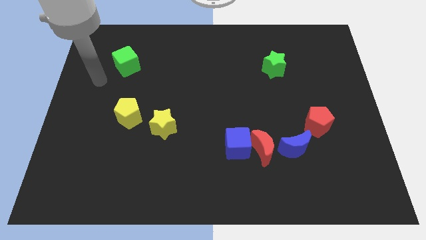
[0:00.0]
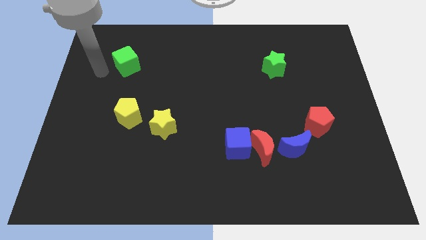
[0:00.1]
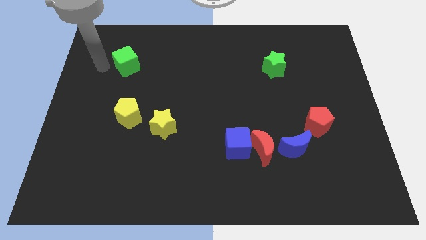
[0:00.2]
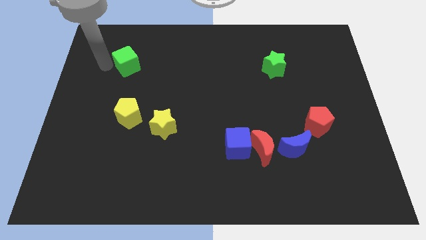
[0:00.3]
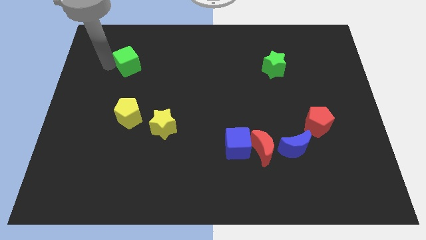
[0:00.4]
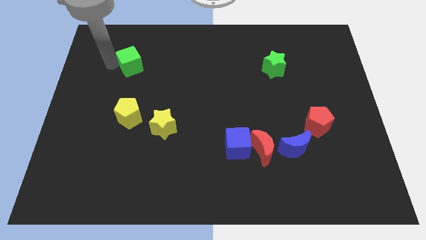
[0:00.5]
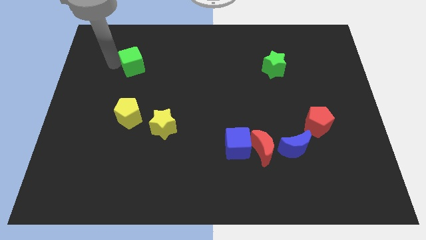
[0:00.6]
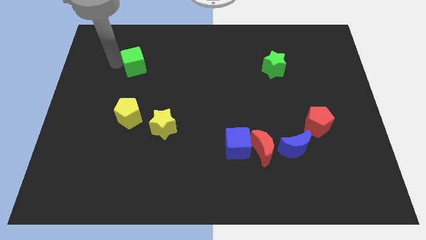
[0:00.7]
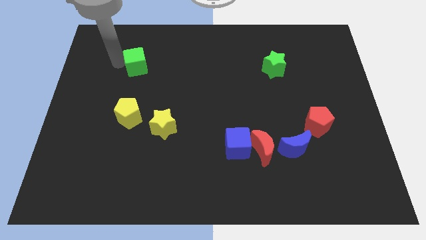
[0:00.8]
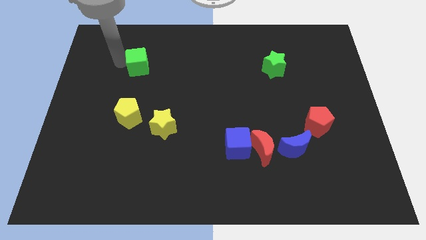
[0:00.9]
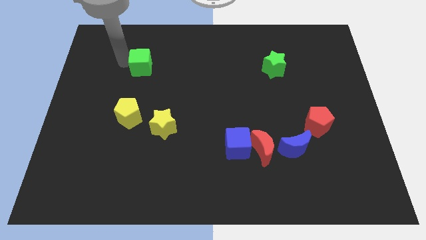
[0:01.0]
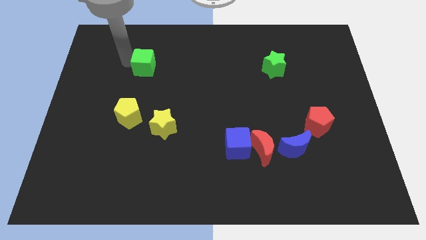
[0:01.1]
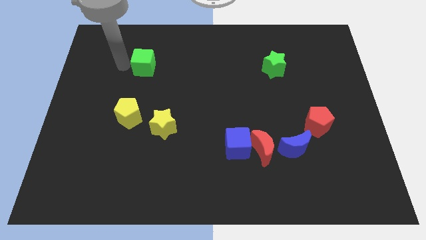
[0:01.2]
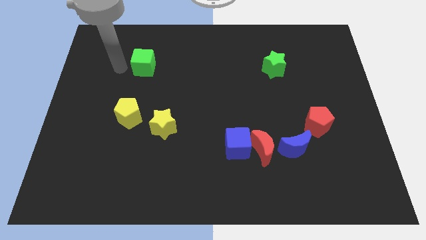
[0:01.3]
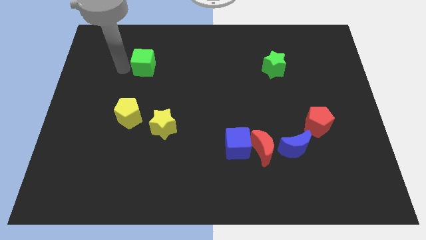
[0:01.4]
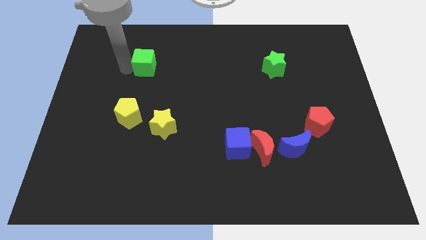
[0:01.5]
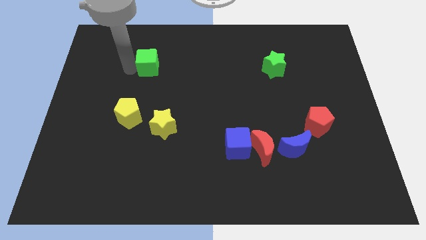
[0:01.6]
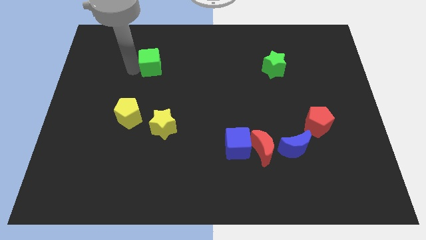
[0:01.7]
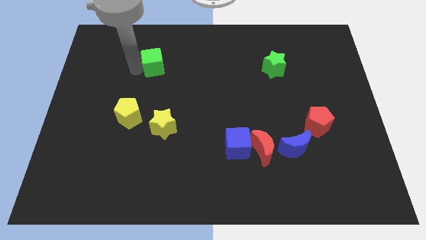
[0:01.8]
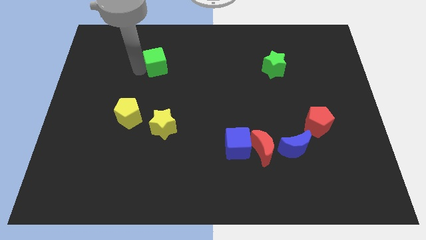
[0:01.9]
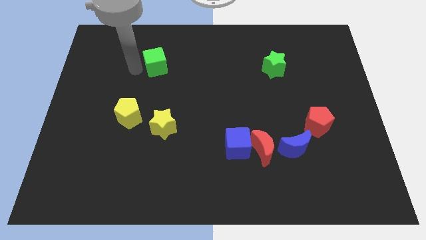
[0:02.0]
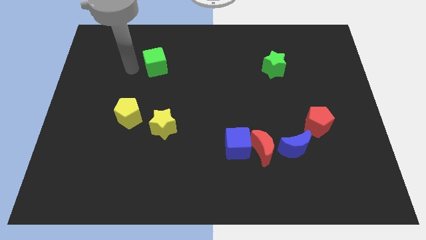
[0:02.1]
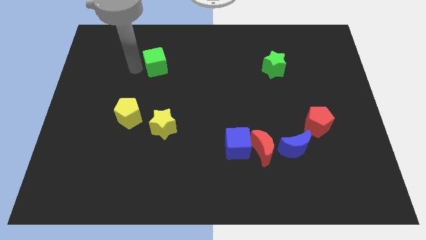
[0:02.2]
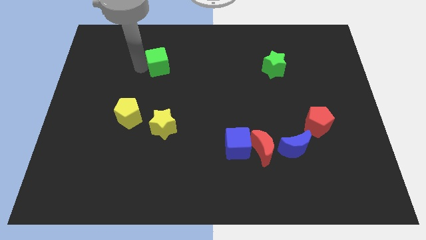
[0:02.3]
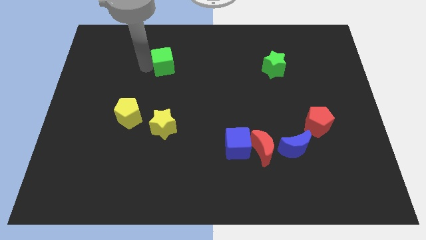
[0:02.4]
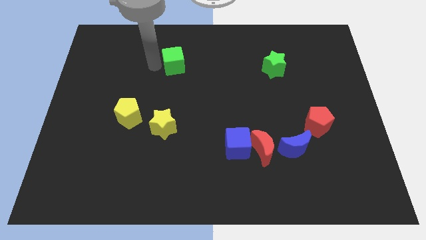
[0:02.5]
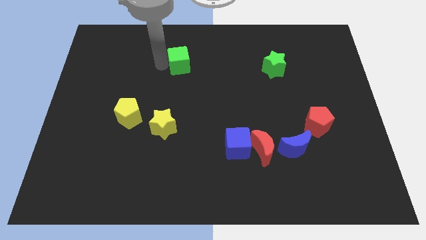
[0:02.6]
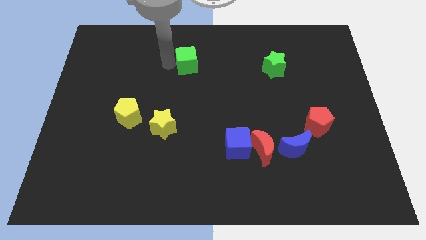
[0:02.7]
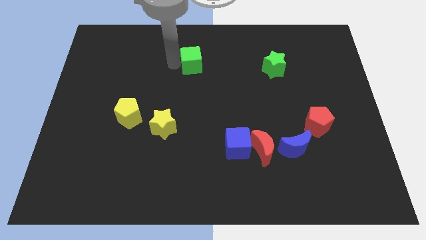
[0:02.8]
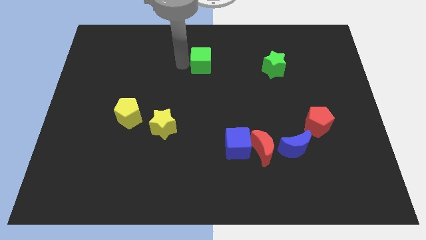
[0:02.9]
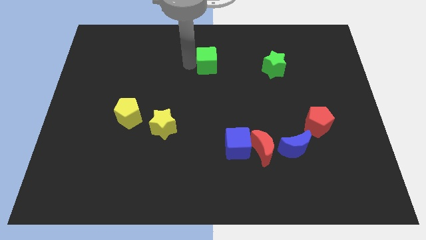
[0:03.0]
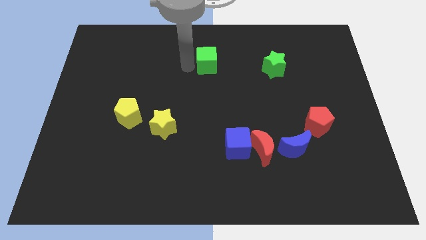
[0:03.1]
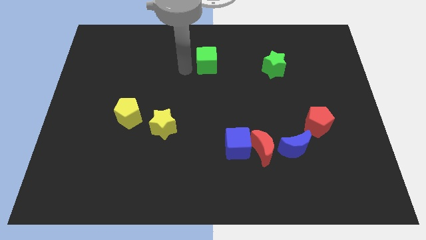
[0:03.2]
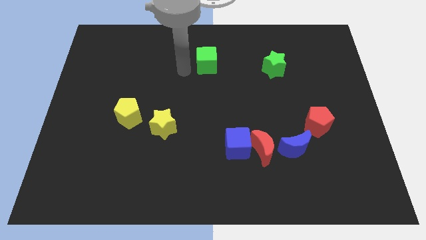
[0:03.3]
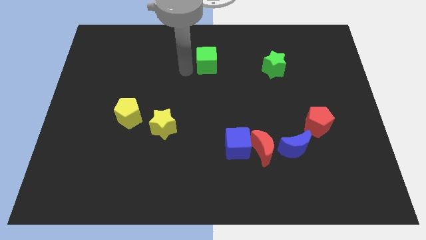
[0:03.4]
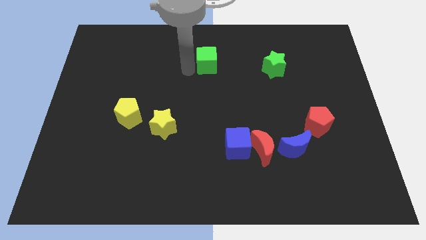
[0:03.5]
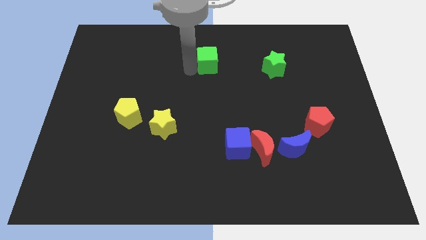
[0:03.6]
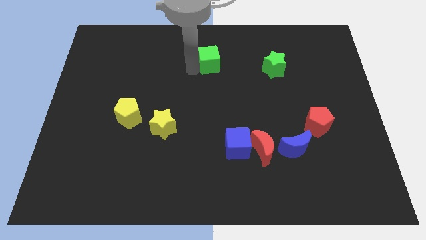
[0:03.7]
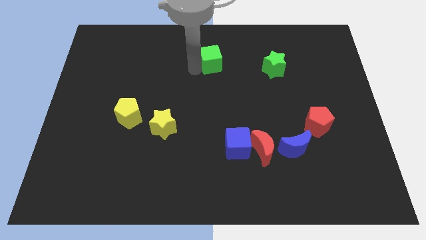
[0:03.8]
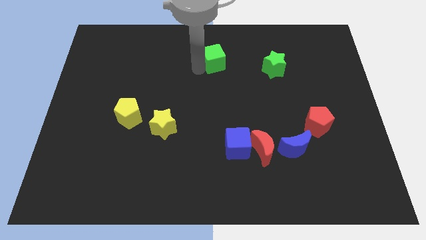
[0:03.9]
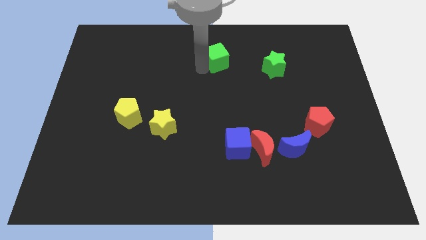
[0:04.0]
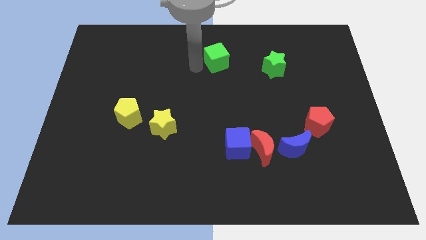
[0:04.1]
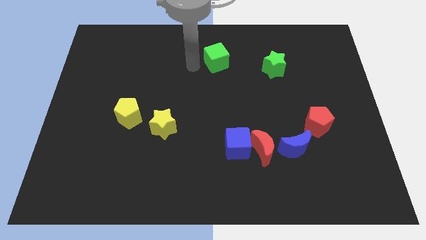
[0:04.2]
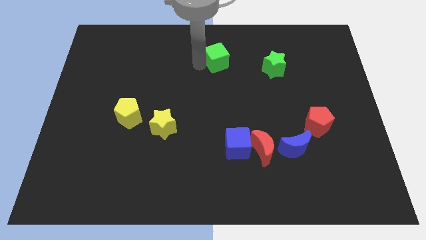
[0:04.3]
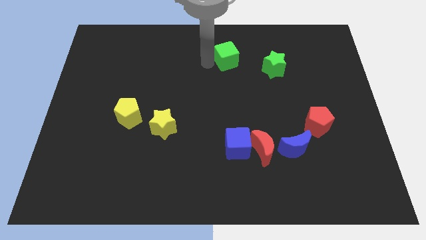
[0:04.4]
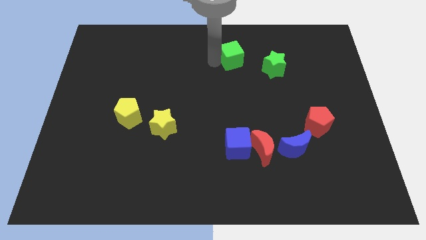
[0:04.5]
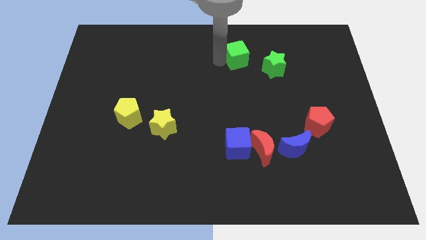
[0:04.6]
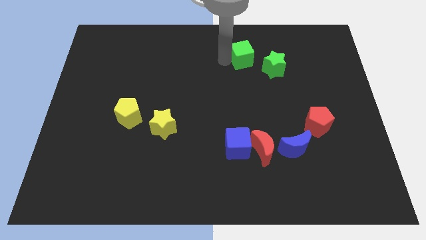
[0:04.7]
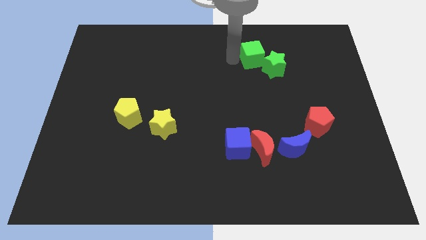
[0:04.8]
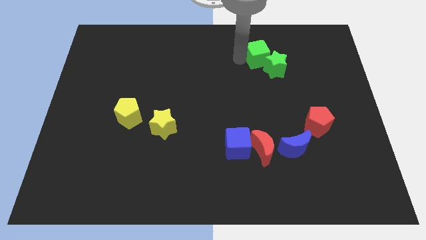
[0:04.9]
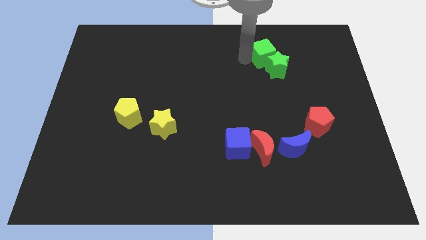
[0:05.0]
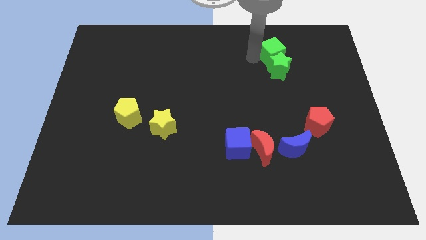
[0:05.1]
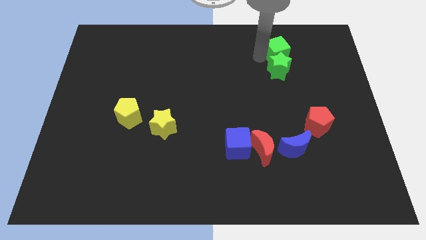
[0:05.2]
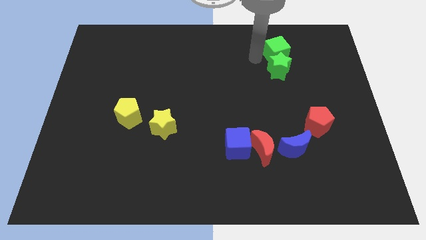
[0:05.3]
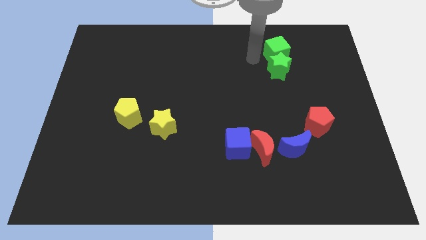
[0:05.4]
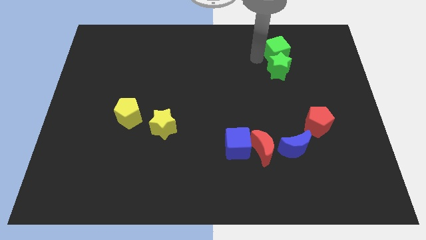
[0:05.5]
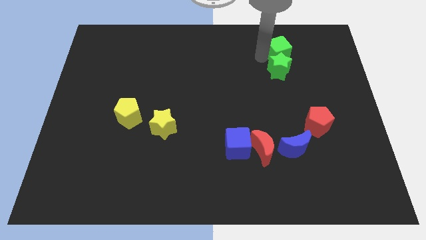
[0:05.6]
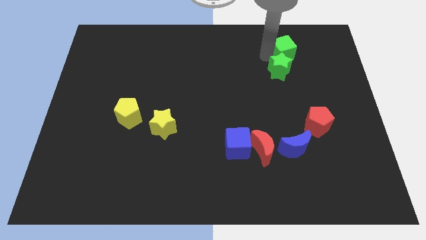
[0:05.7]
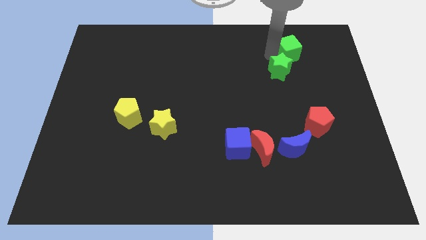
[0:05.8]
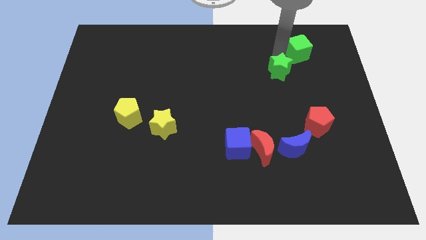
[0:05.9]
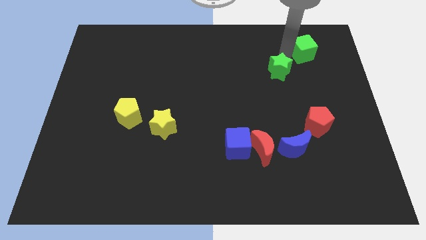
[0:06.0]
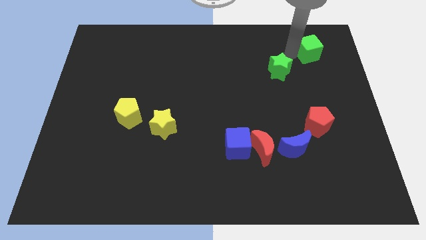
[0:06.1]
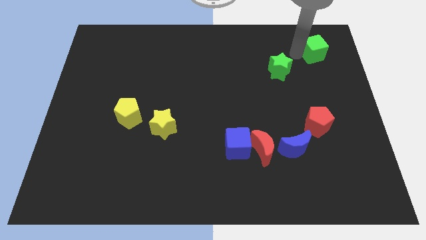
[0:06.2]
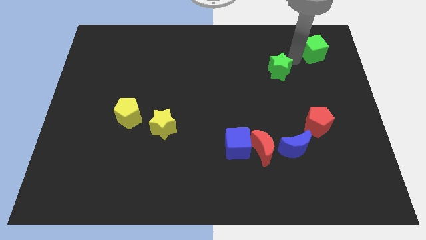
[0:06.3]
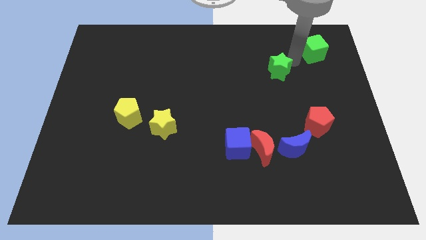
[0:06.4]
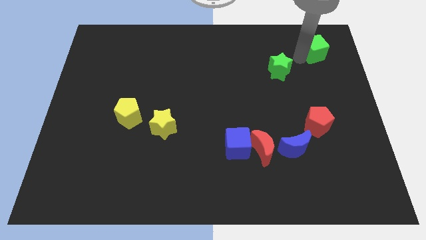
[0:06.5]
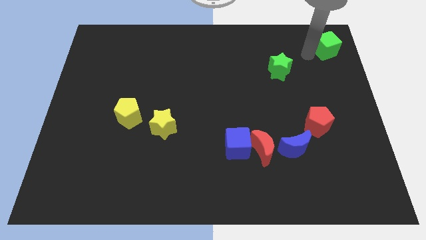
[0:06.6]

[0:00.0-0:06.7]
put the green cube to the upper right corner

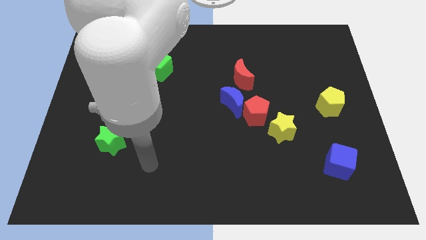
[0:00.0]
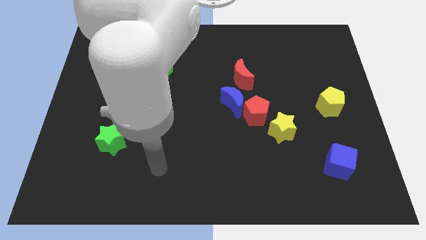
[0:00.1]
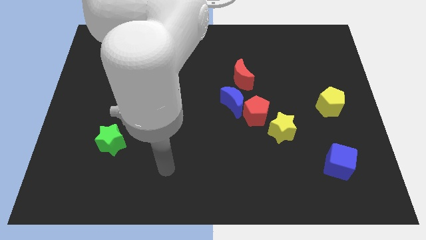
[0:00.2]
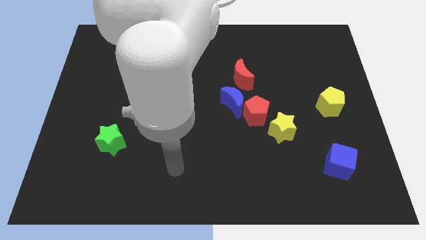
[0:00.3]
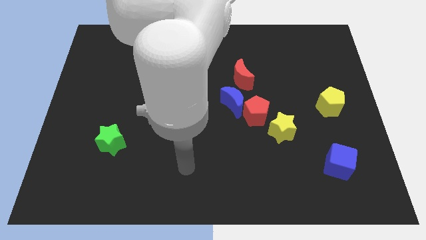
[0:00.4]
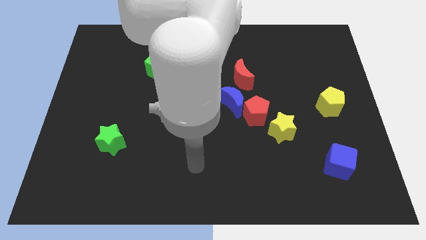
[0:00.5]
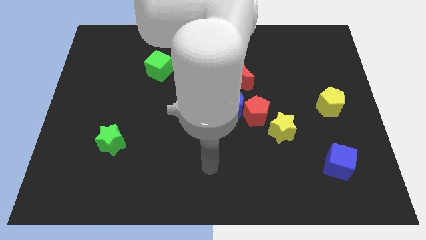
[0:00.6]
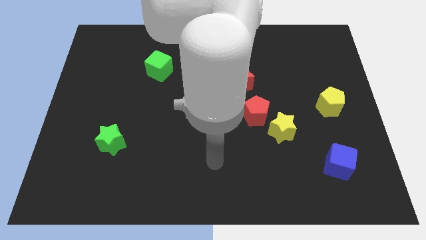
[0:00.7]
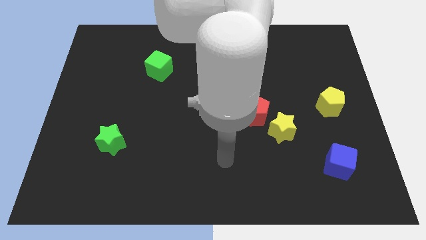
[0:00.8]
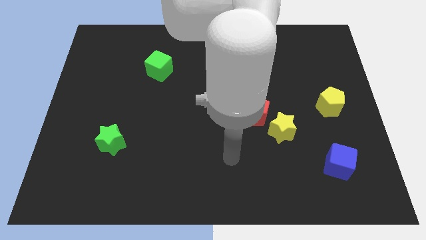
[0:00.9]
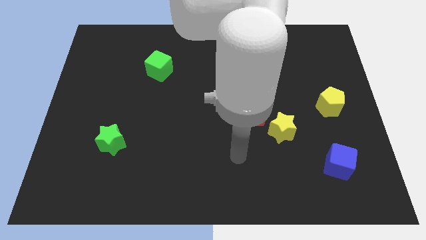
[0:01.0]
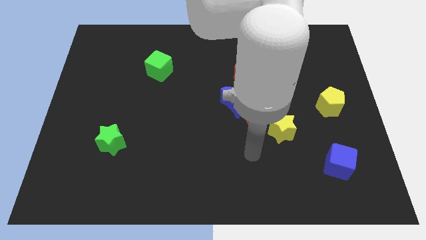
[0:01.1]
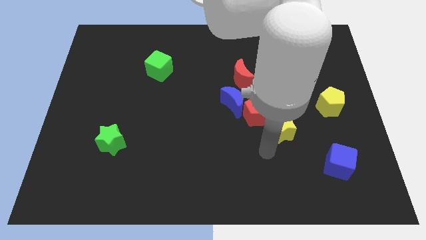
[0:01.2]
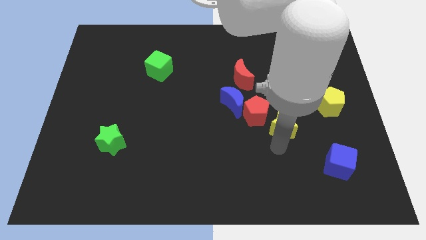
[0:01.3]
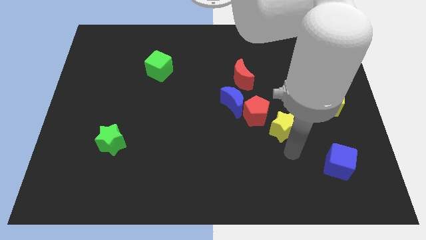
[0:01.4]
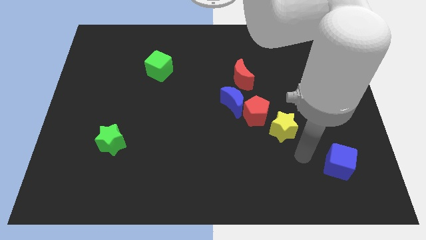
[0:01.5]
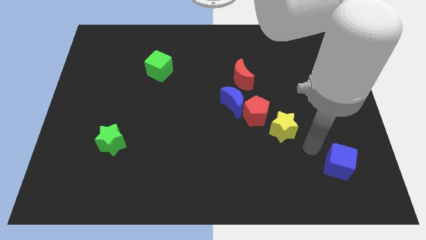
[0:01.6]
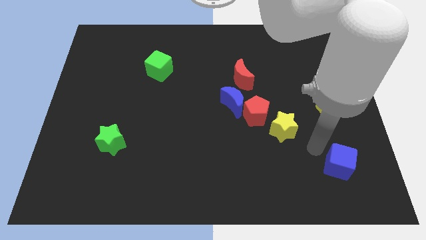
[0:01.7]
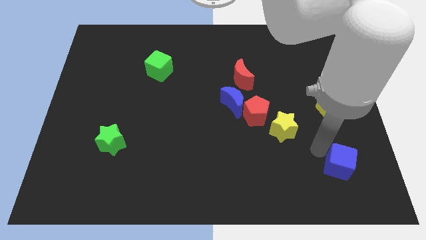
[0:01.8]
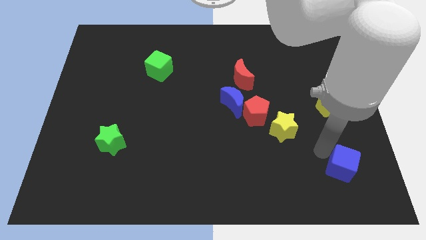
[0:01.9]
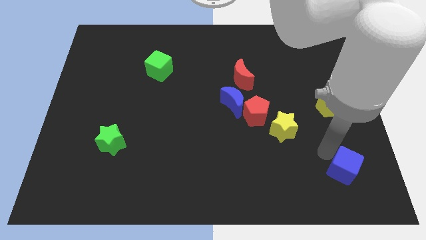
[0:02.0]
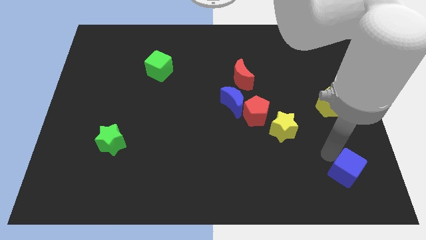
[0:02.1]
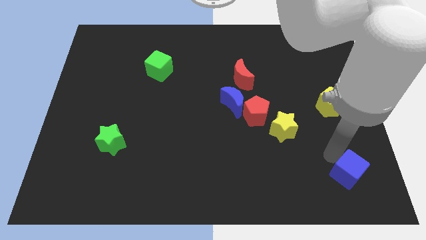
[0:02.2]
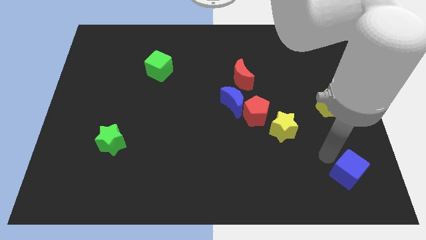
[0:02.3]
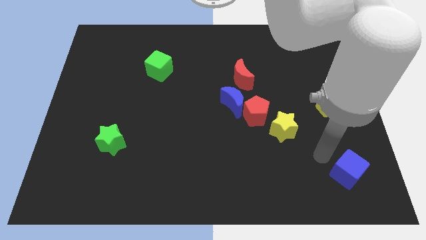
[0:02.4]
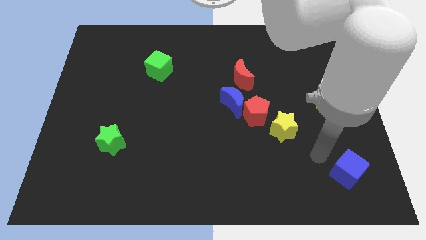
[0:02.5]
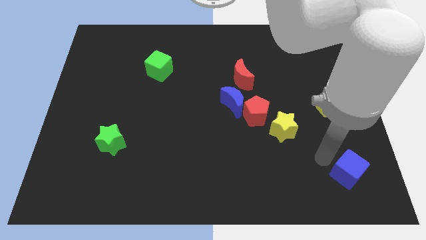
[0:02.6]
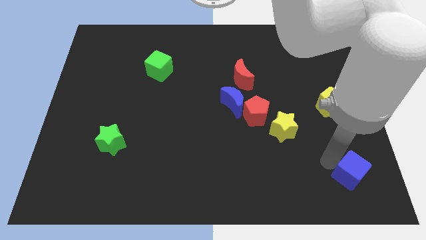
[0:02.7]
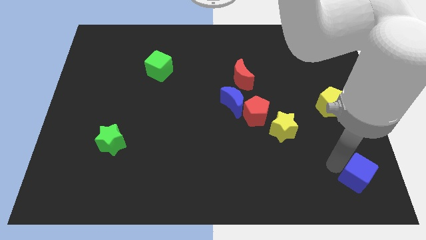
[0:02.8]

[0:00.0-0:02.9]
push the blue cube to the bottom right of the board
